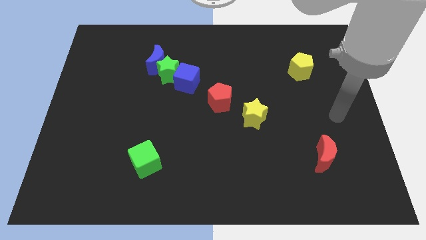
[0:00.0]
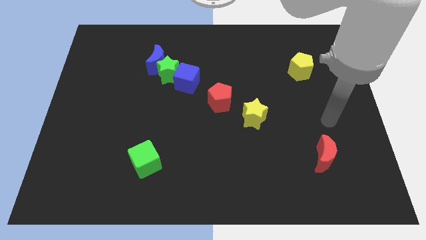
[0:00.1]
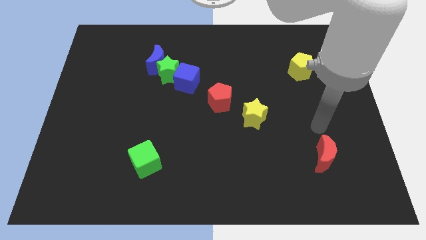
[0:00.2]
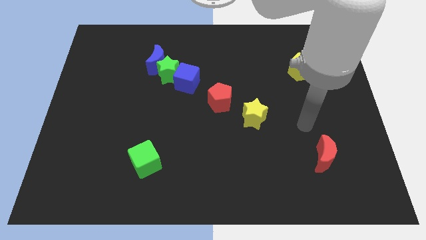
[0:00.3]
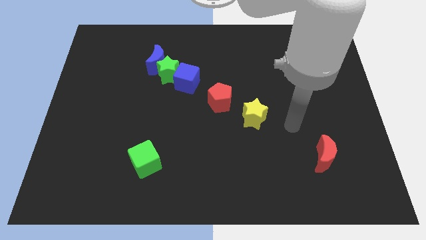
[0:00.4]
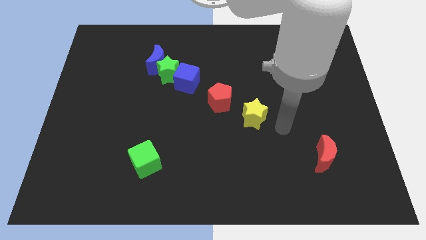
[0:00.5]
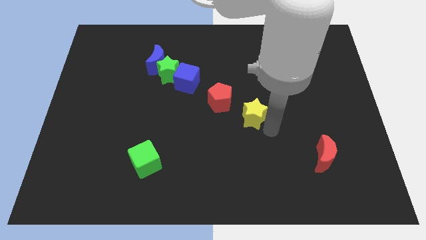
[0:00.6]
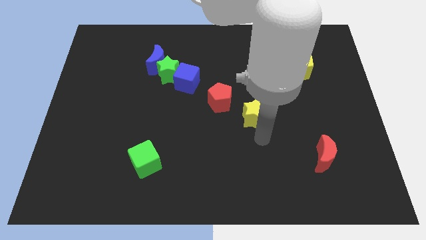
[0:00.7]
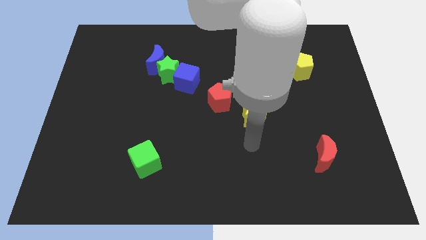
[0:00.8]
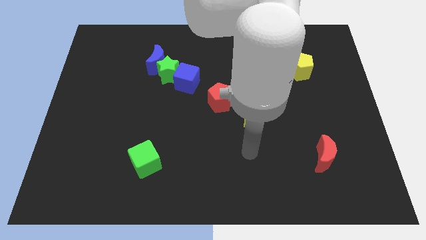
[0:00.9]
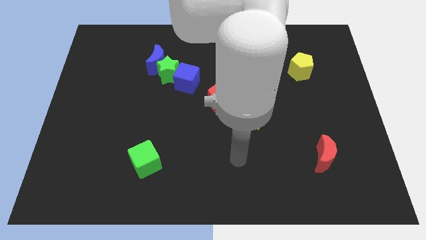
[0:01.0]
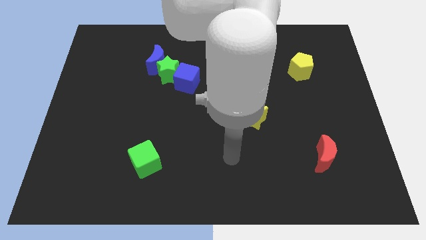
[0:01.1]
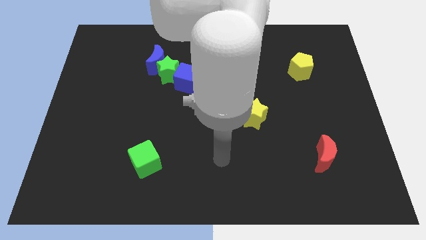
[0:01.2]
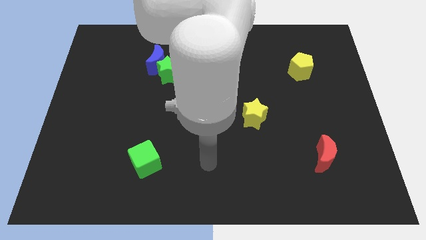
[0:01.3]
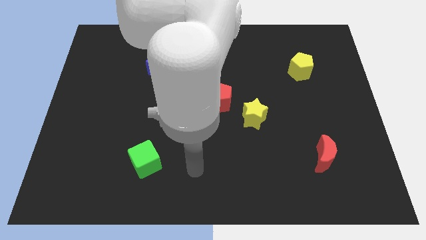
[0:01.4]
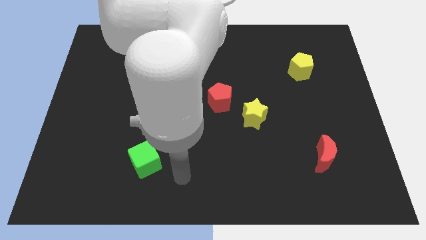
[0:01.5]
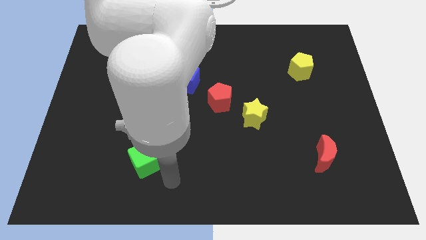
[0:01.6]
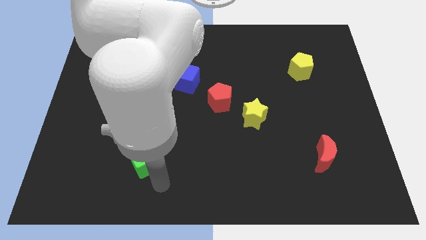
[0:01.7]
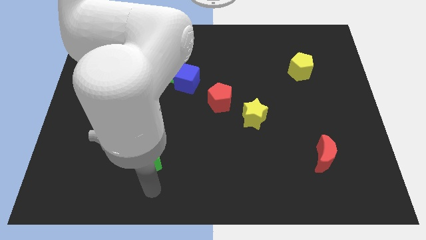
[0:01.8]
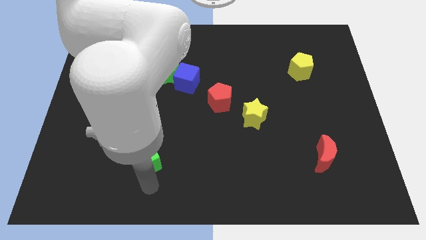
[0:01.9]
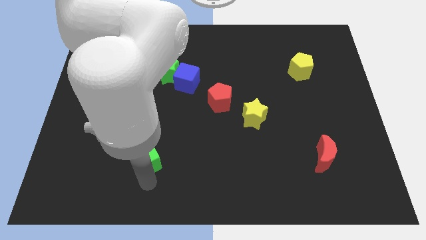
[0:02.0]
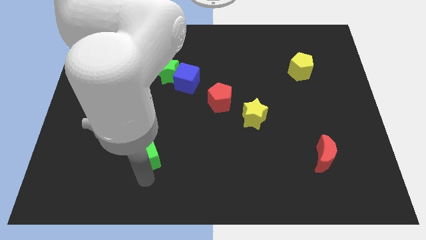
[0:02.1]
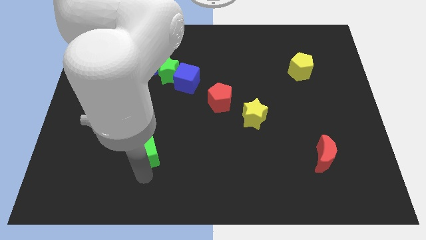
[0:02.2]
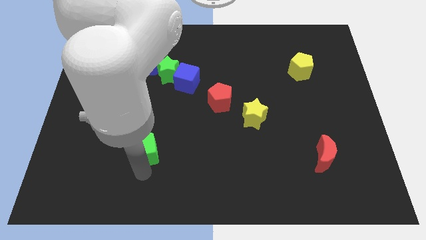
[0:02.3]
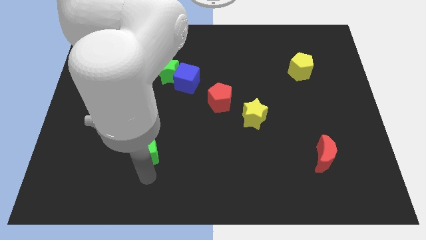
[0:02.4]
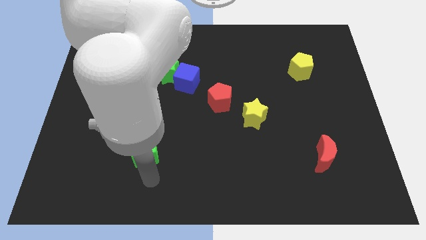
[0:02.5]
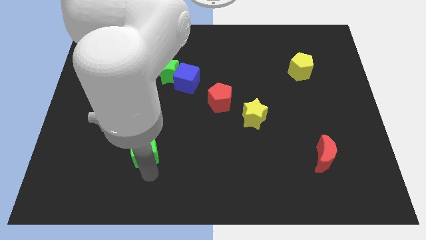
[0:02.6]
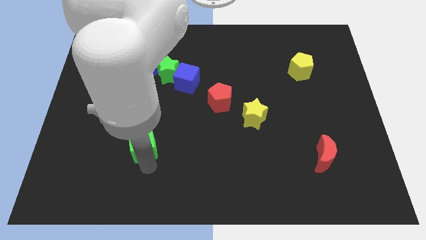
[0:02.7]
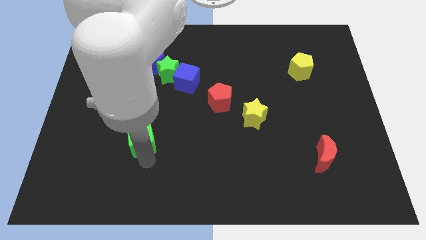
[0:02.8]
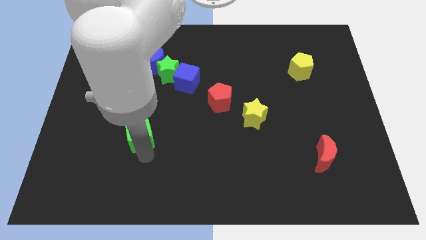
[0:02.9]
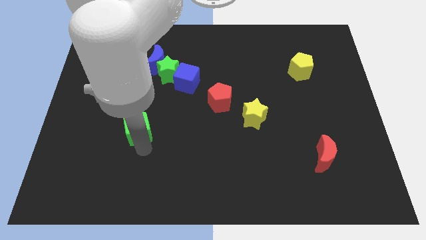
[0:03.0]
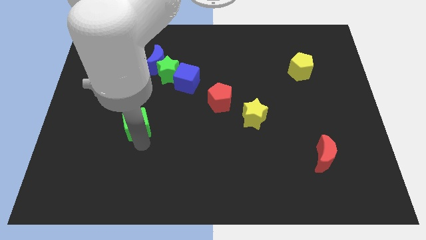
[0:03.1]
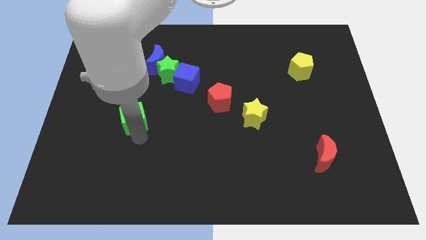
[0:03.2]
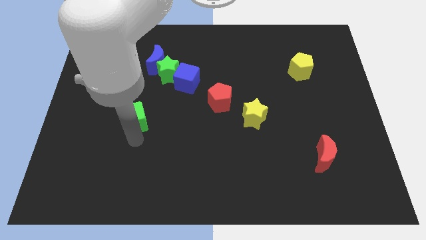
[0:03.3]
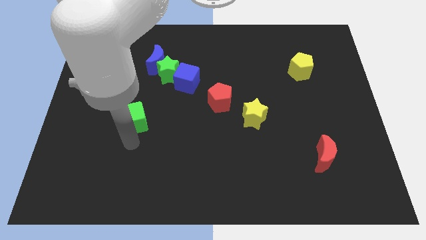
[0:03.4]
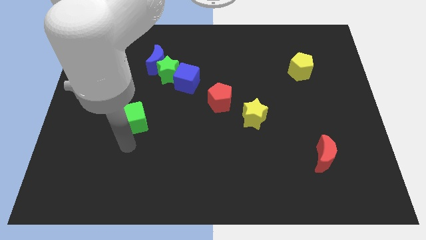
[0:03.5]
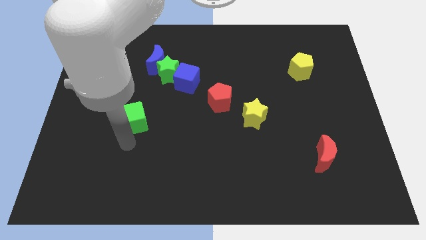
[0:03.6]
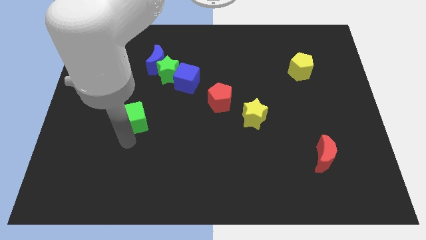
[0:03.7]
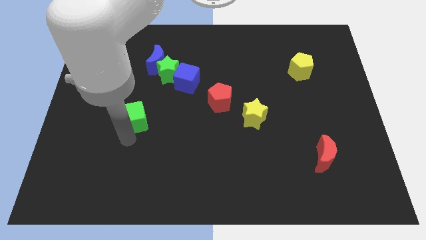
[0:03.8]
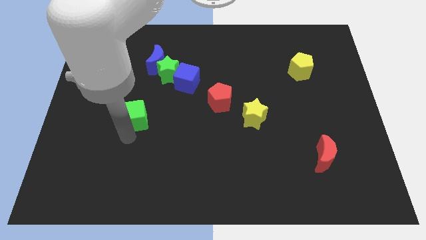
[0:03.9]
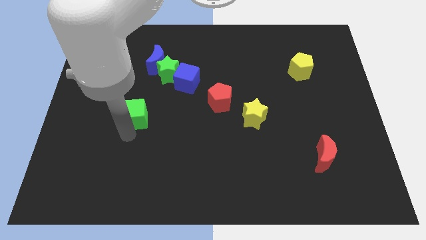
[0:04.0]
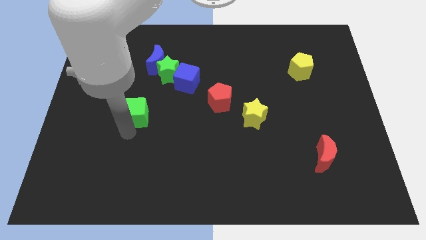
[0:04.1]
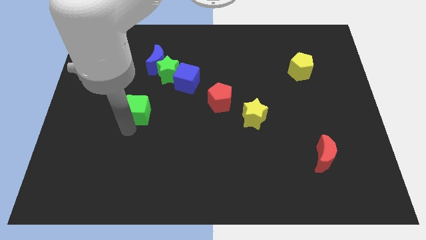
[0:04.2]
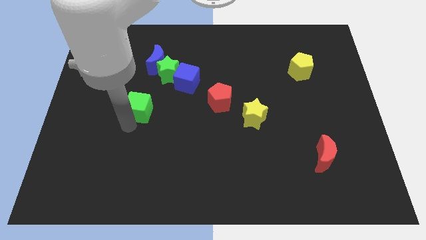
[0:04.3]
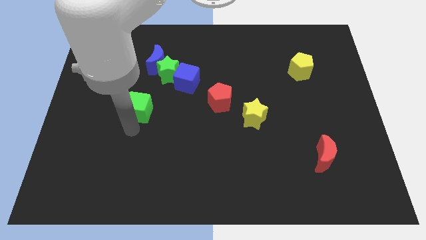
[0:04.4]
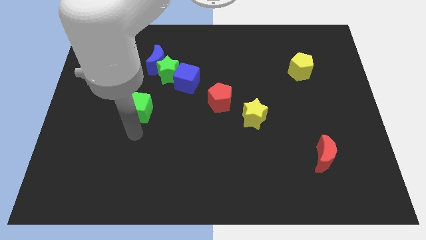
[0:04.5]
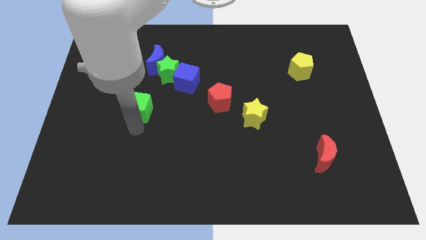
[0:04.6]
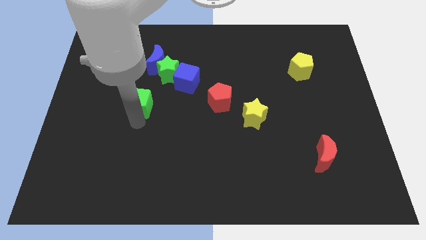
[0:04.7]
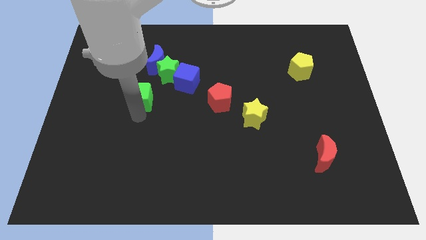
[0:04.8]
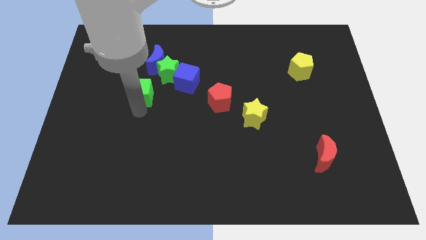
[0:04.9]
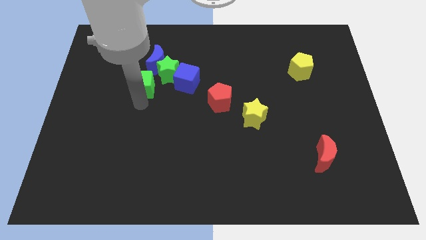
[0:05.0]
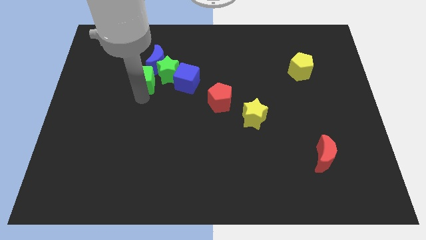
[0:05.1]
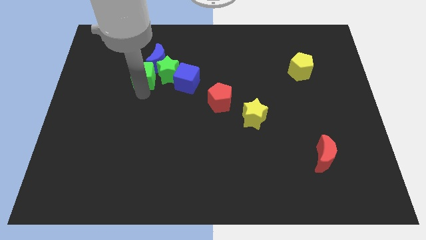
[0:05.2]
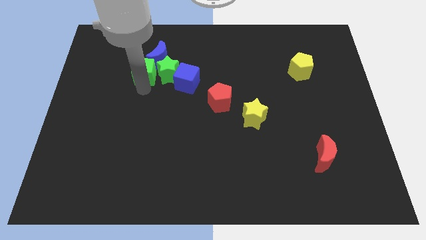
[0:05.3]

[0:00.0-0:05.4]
put the green cube close to the blue moon

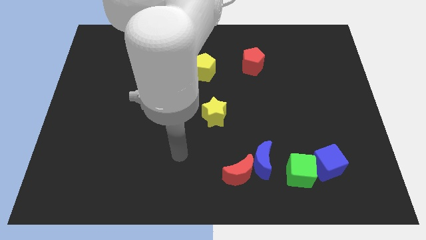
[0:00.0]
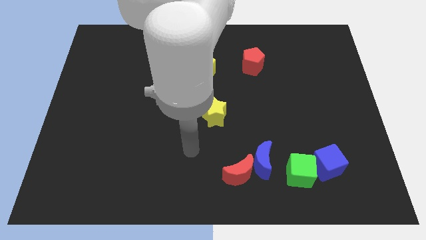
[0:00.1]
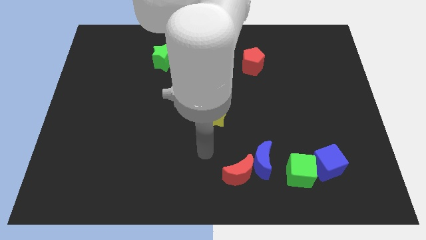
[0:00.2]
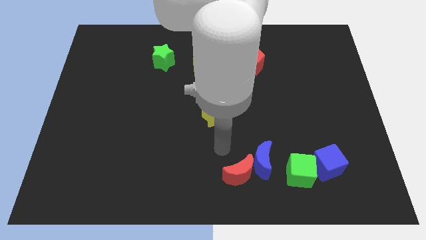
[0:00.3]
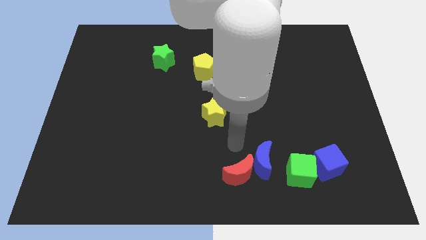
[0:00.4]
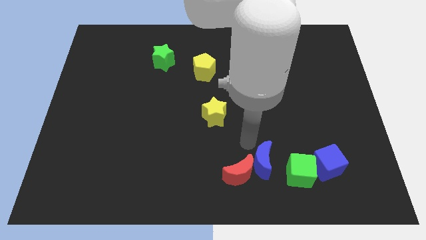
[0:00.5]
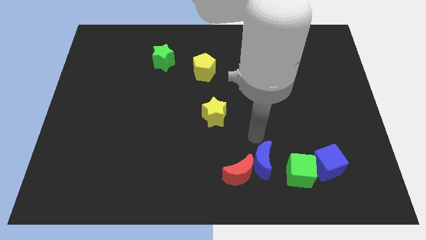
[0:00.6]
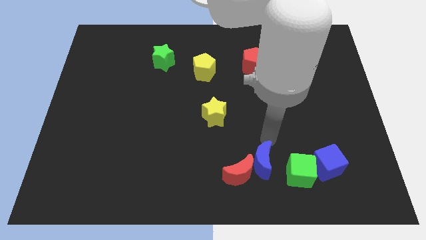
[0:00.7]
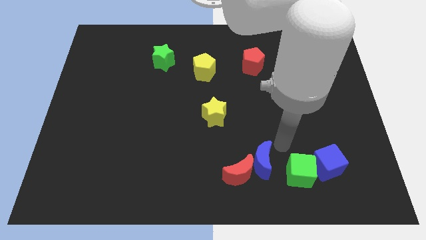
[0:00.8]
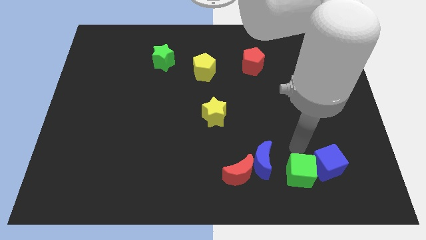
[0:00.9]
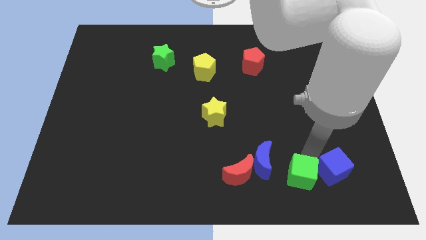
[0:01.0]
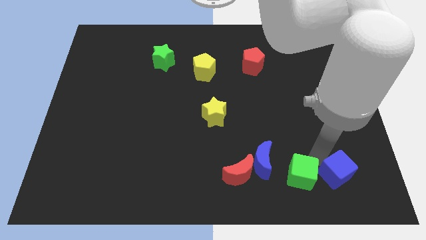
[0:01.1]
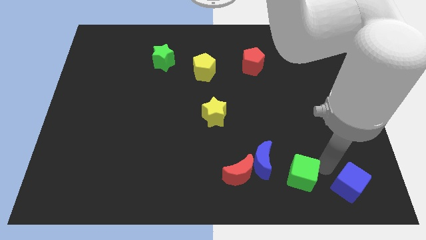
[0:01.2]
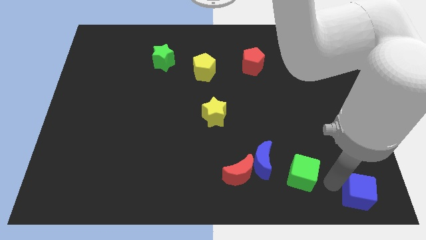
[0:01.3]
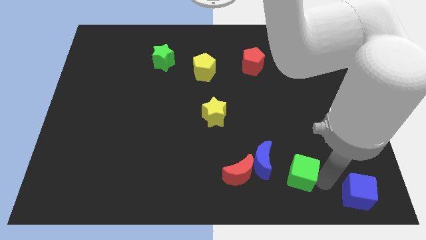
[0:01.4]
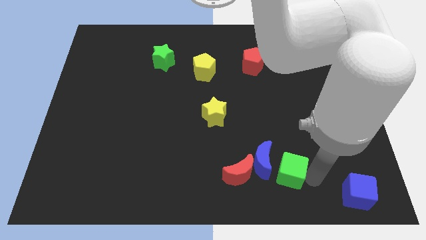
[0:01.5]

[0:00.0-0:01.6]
move the green cube close to the blue moon

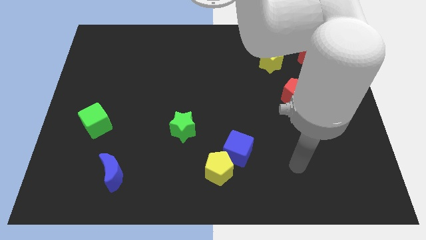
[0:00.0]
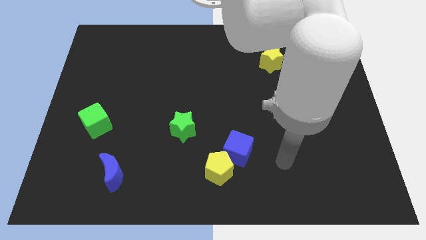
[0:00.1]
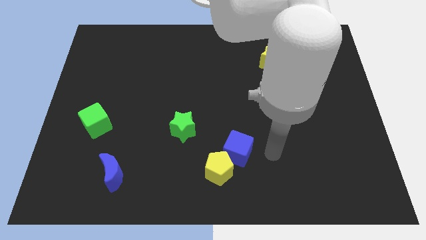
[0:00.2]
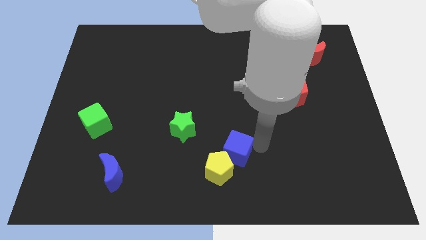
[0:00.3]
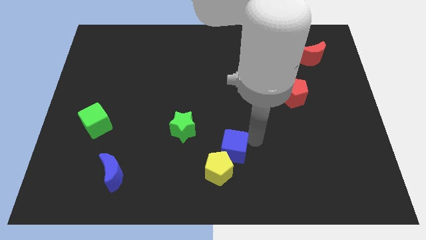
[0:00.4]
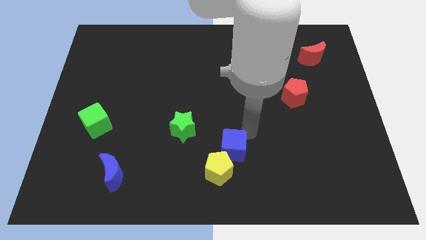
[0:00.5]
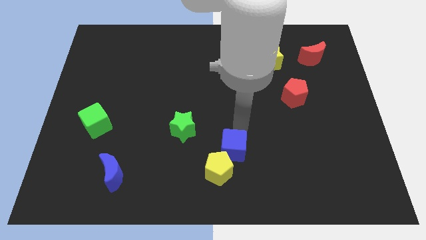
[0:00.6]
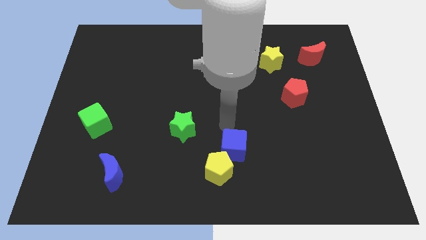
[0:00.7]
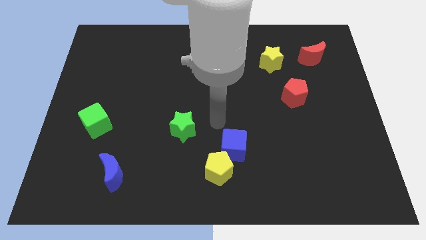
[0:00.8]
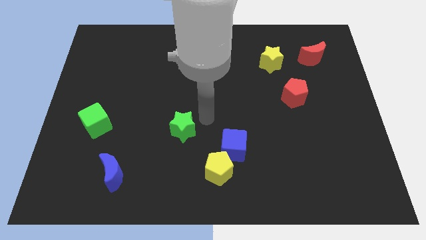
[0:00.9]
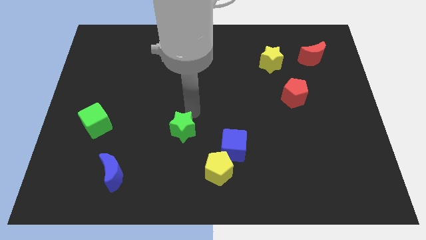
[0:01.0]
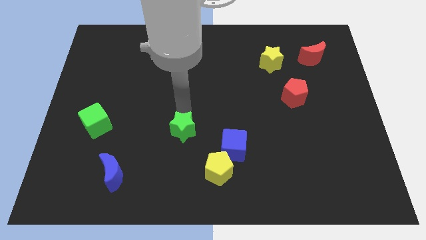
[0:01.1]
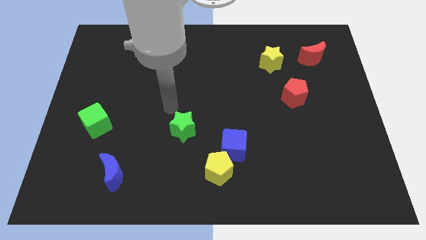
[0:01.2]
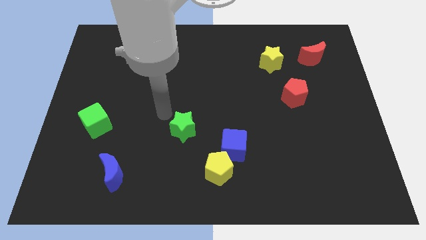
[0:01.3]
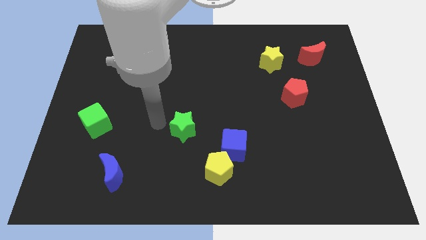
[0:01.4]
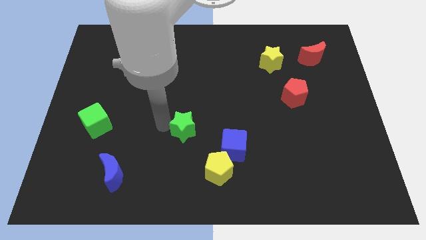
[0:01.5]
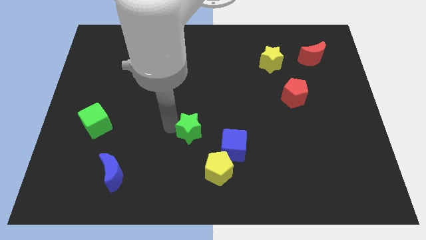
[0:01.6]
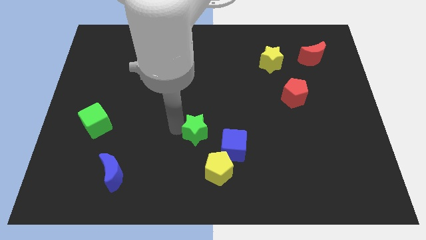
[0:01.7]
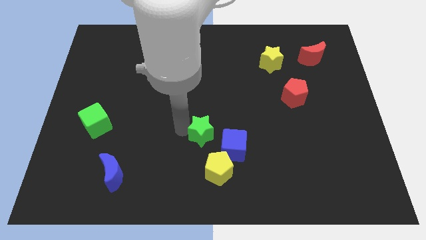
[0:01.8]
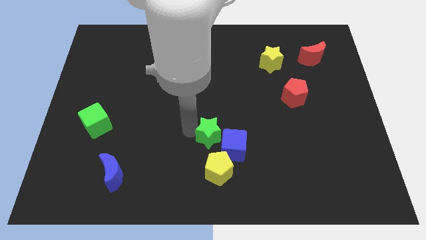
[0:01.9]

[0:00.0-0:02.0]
push the green star next to the blue cube
